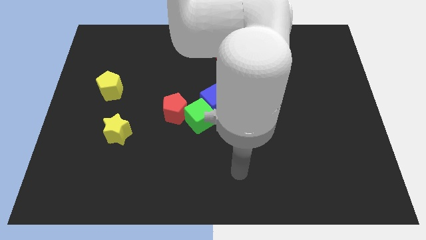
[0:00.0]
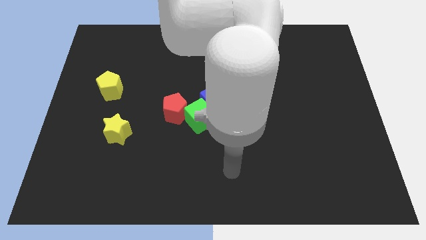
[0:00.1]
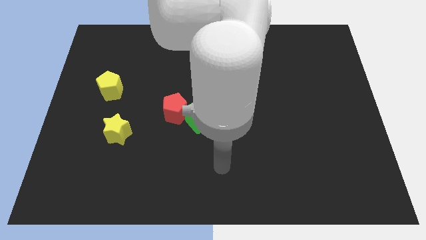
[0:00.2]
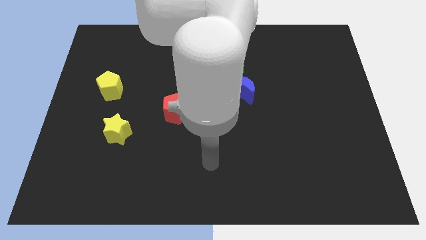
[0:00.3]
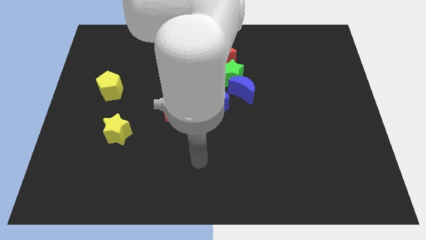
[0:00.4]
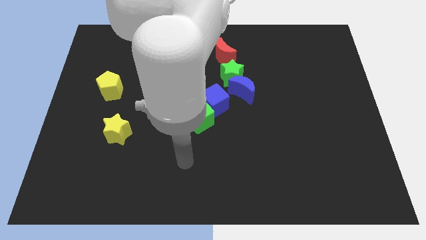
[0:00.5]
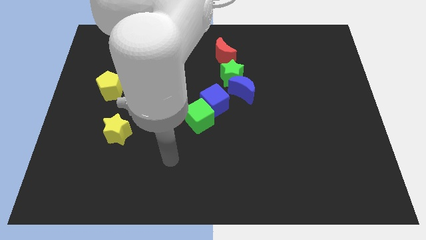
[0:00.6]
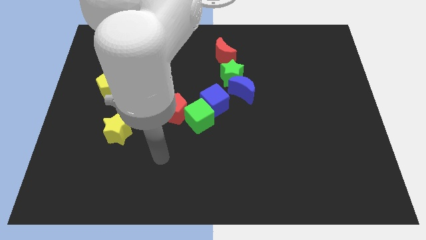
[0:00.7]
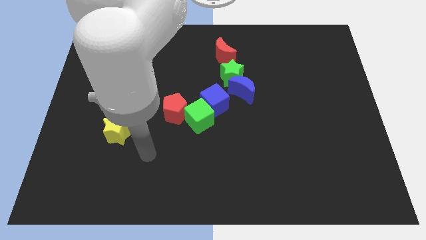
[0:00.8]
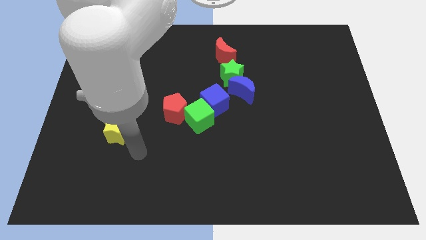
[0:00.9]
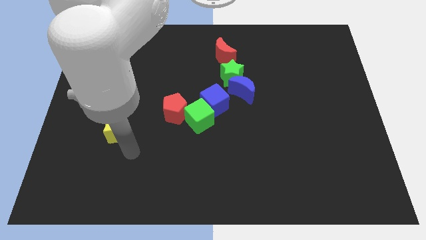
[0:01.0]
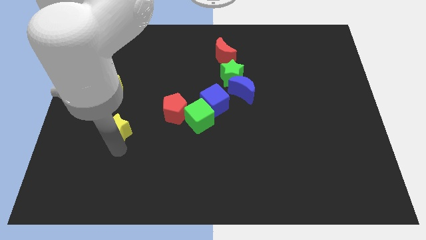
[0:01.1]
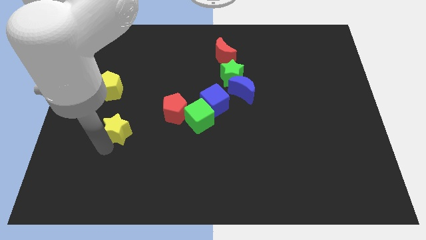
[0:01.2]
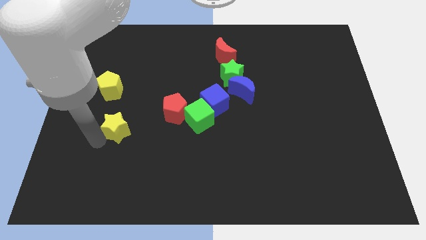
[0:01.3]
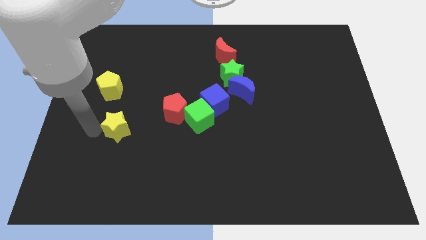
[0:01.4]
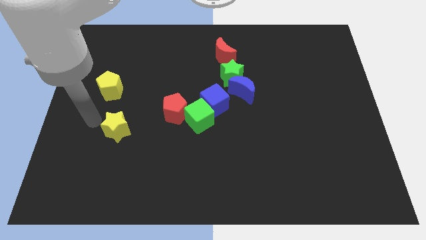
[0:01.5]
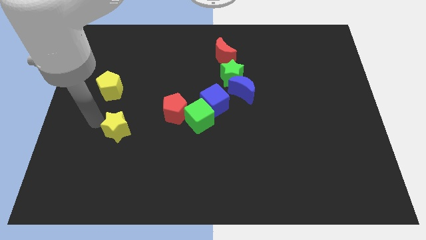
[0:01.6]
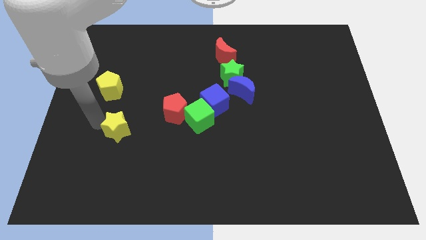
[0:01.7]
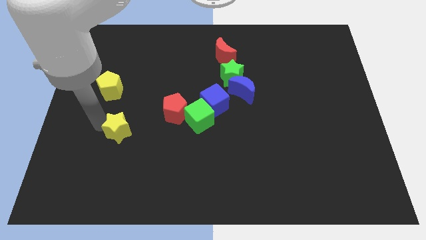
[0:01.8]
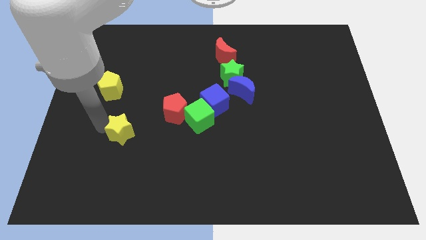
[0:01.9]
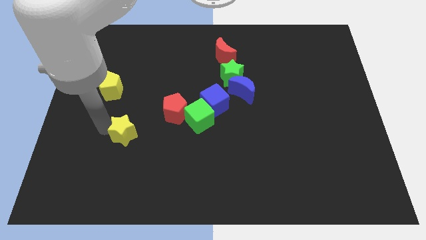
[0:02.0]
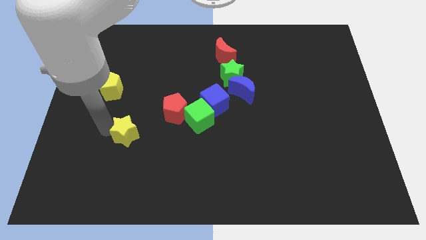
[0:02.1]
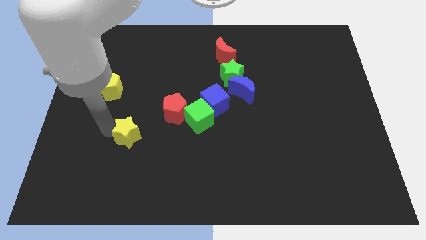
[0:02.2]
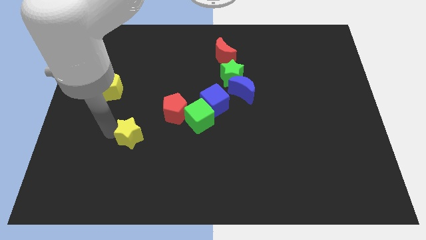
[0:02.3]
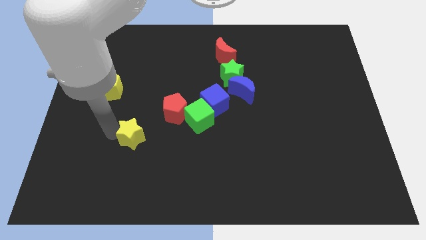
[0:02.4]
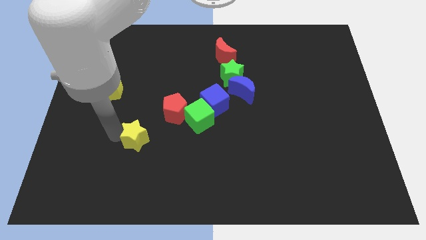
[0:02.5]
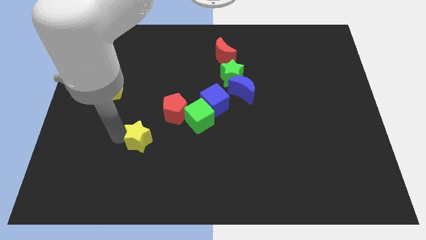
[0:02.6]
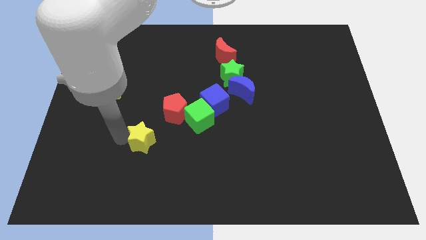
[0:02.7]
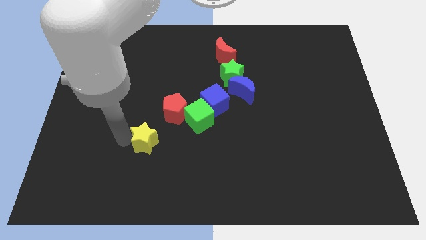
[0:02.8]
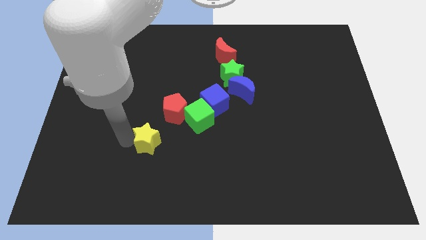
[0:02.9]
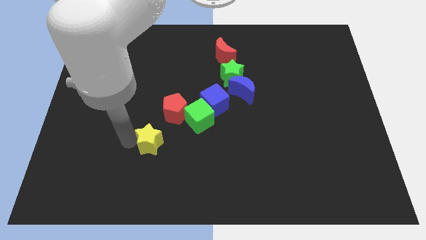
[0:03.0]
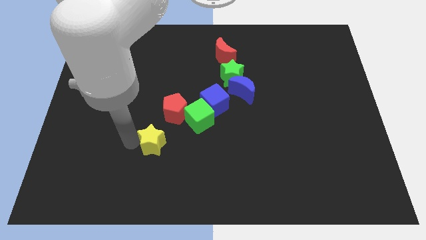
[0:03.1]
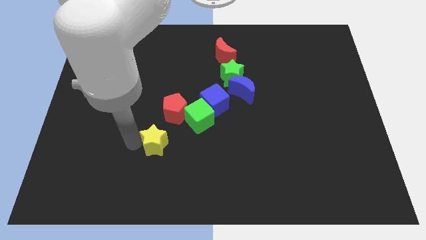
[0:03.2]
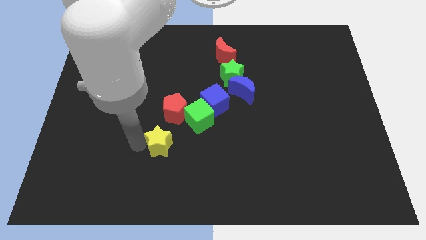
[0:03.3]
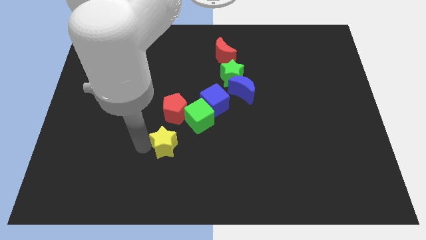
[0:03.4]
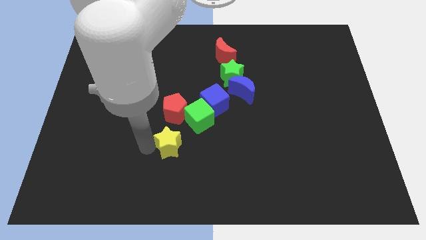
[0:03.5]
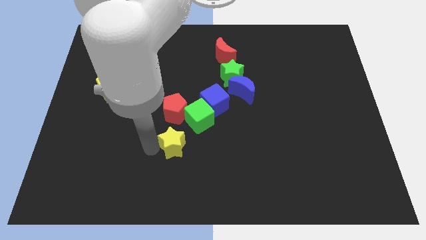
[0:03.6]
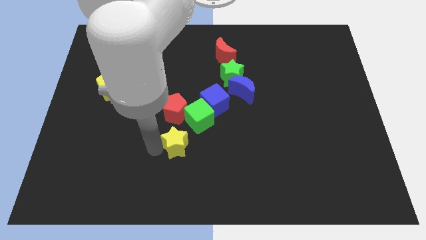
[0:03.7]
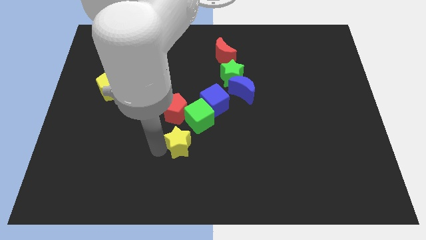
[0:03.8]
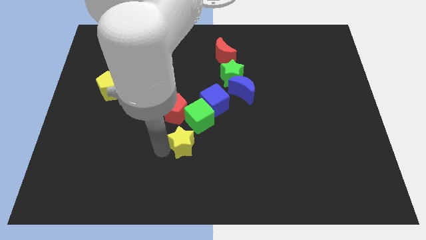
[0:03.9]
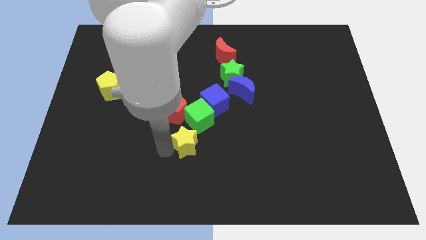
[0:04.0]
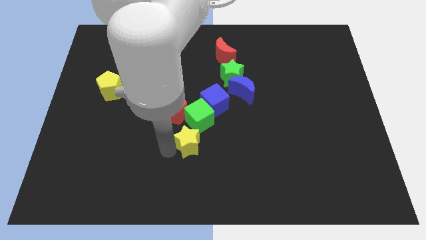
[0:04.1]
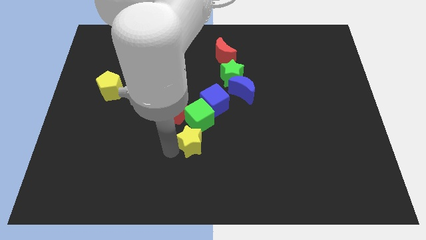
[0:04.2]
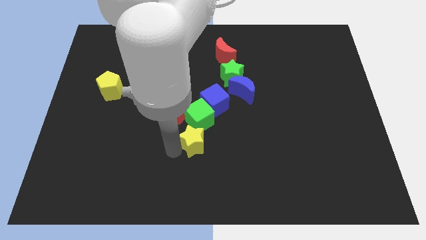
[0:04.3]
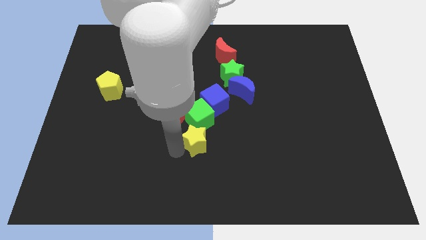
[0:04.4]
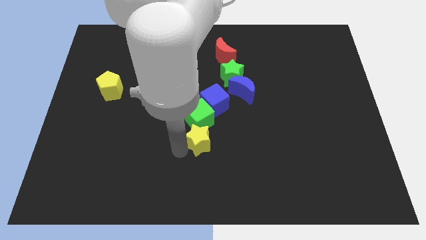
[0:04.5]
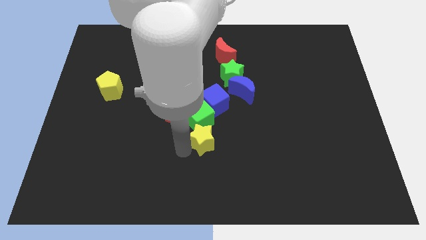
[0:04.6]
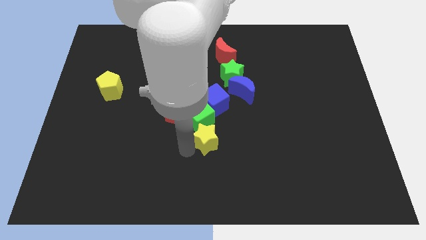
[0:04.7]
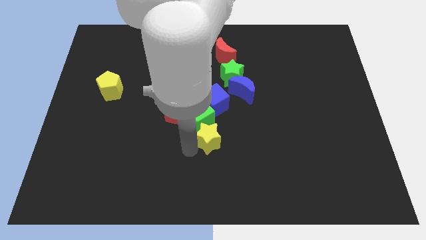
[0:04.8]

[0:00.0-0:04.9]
move the yellow star right

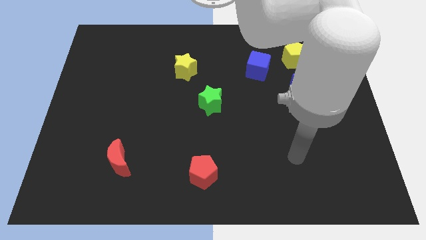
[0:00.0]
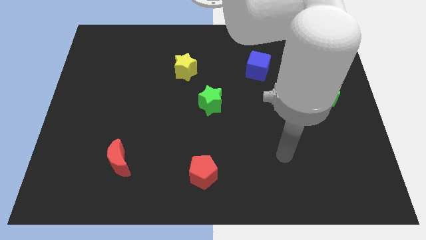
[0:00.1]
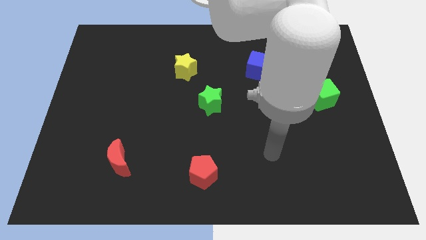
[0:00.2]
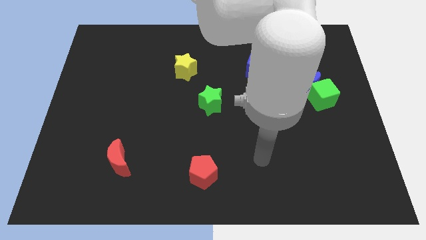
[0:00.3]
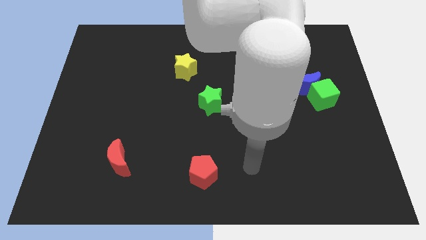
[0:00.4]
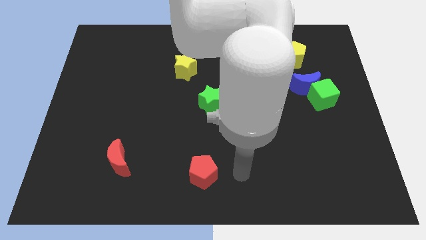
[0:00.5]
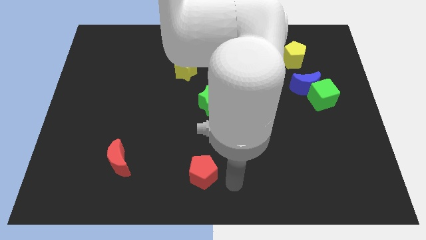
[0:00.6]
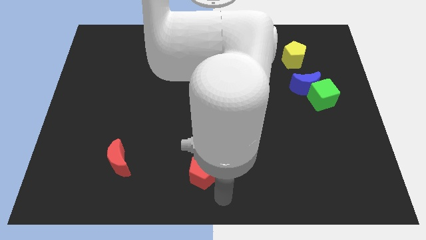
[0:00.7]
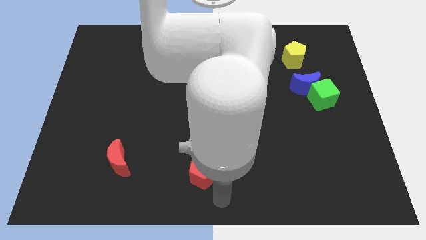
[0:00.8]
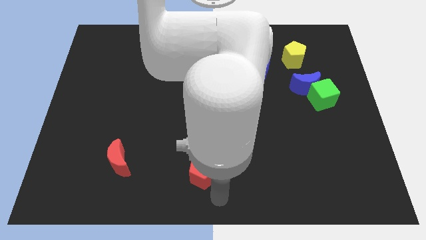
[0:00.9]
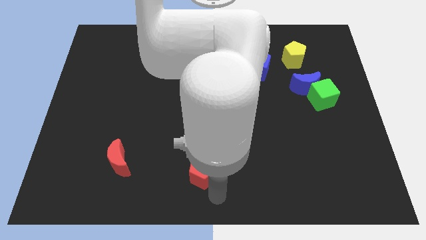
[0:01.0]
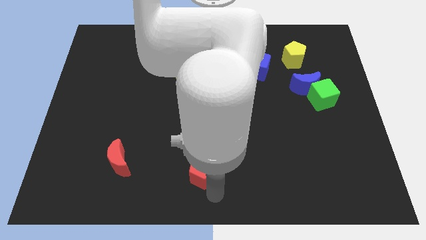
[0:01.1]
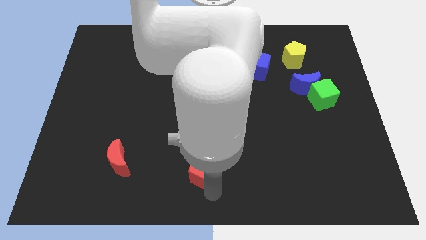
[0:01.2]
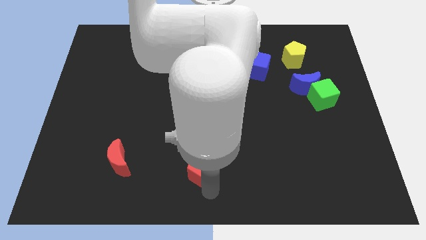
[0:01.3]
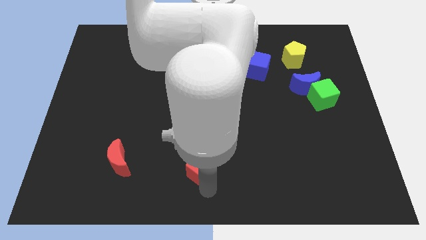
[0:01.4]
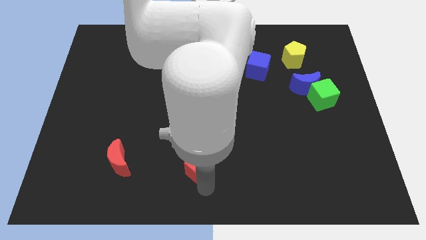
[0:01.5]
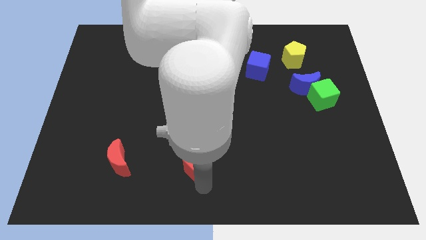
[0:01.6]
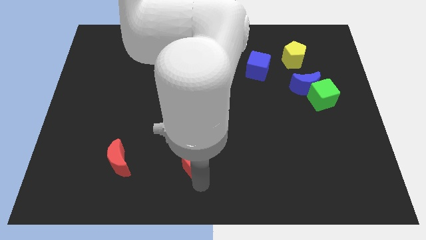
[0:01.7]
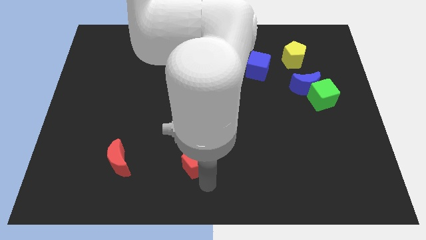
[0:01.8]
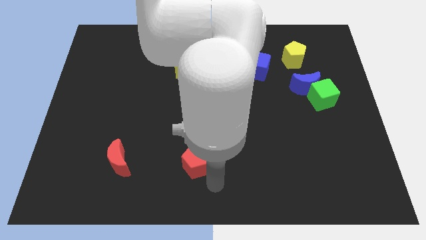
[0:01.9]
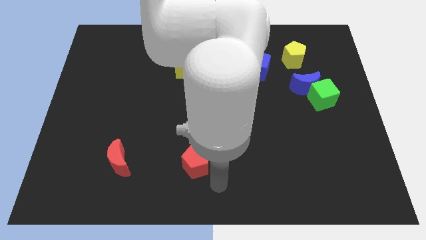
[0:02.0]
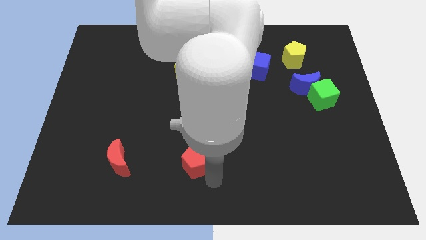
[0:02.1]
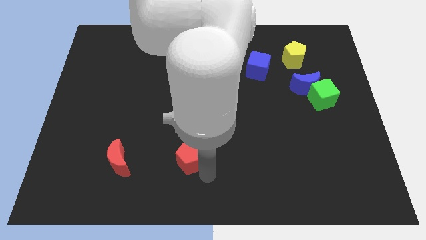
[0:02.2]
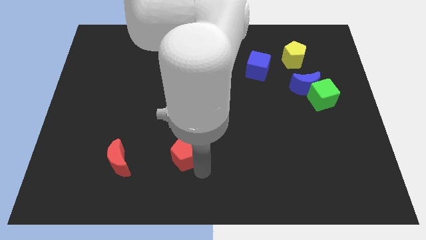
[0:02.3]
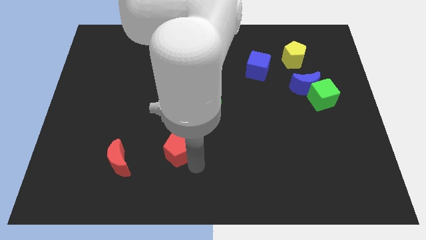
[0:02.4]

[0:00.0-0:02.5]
push the red pentagon up and left a little

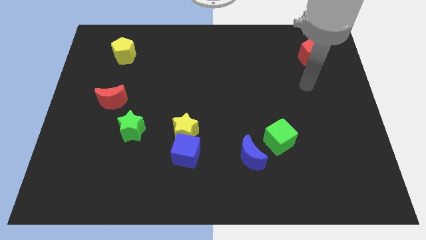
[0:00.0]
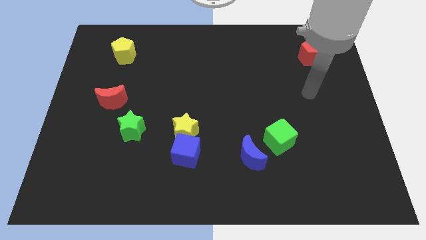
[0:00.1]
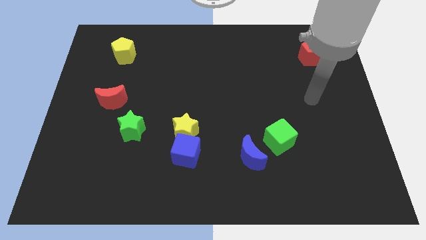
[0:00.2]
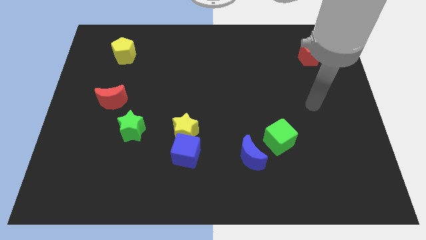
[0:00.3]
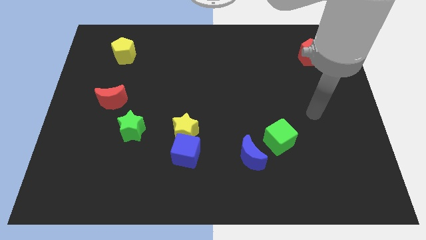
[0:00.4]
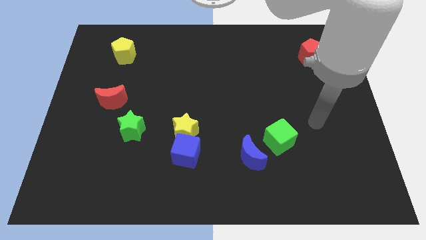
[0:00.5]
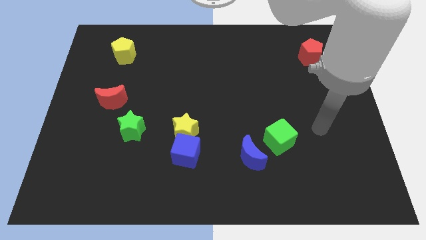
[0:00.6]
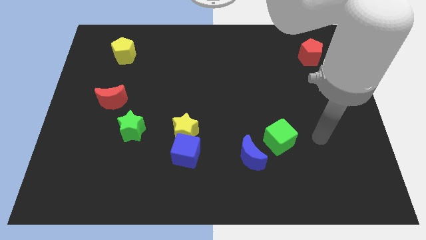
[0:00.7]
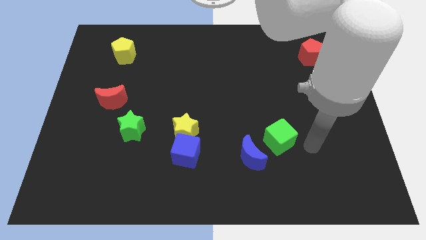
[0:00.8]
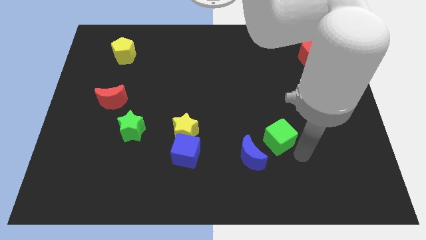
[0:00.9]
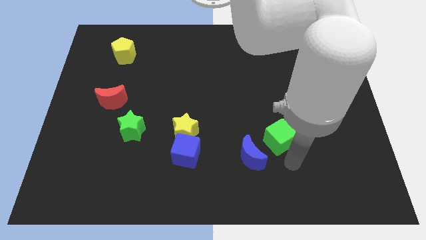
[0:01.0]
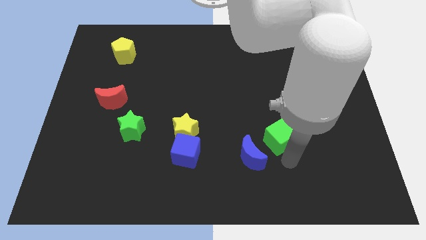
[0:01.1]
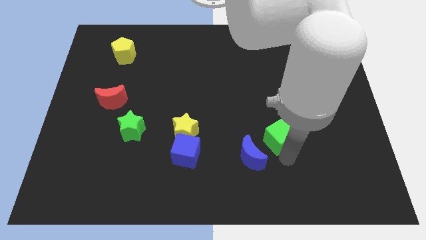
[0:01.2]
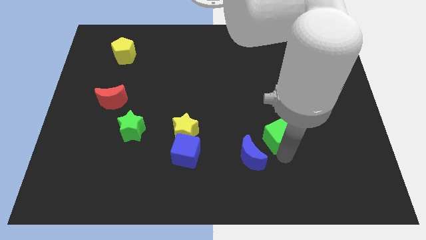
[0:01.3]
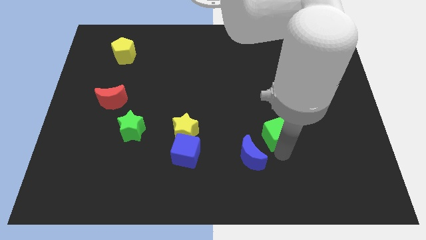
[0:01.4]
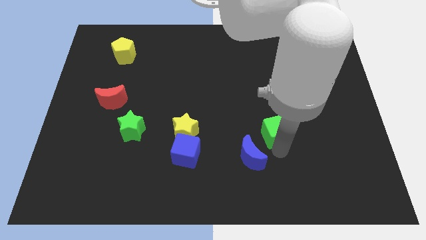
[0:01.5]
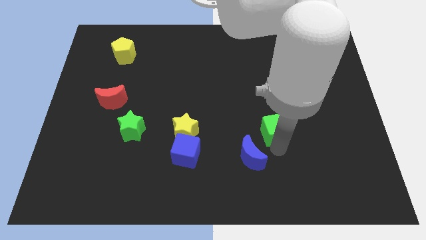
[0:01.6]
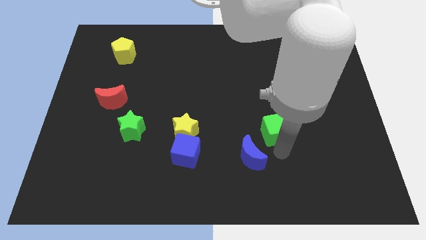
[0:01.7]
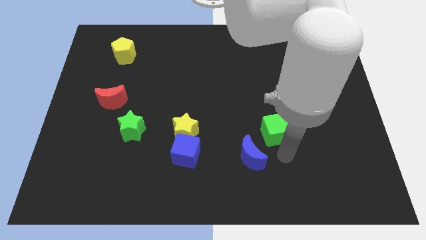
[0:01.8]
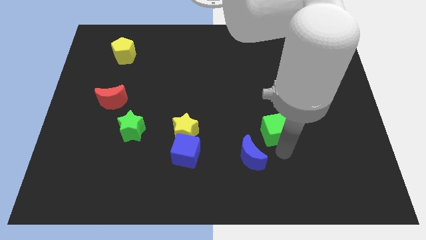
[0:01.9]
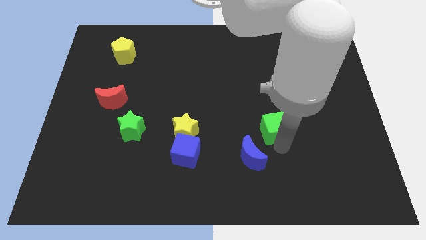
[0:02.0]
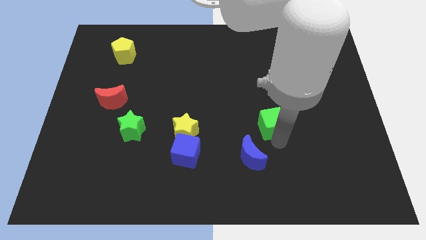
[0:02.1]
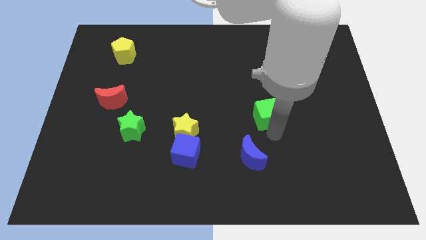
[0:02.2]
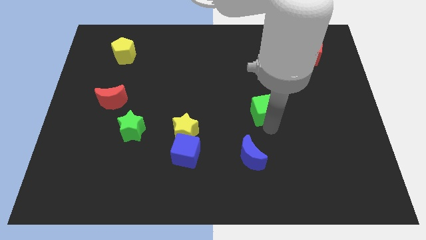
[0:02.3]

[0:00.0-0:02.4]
slide the green cube somewhat upwards
